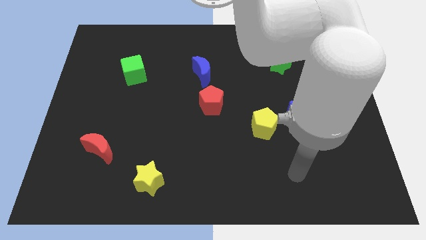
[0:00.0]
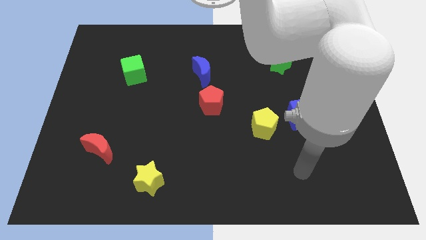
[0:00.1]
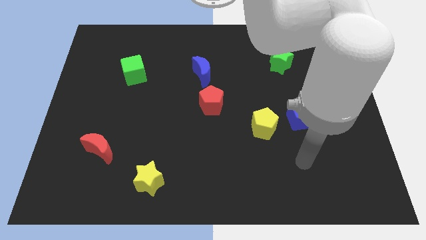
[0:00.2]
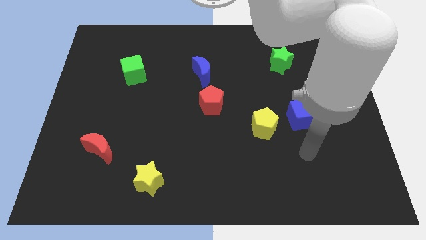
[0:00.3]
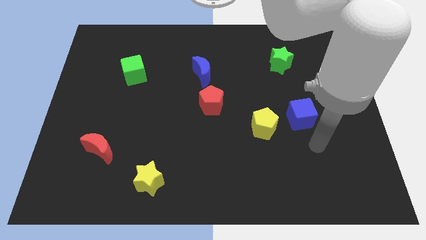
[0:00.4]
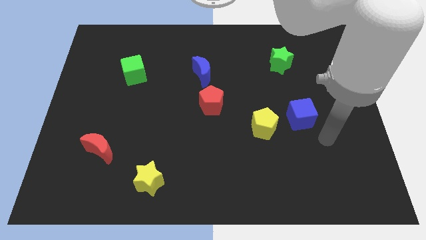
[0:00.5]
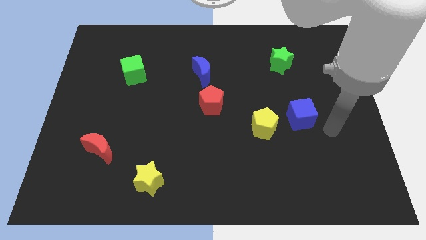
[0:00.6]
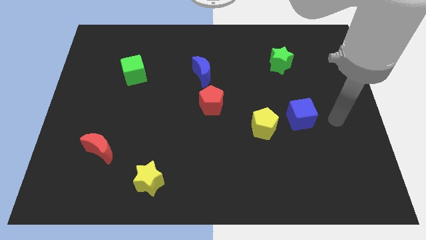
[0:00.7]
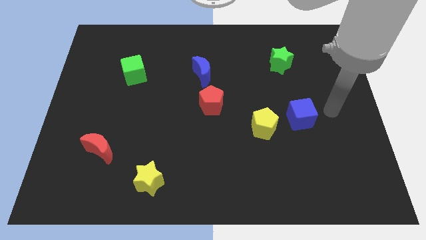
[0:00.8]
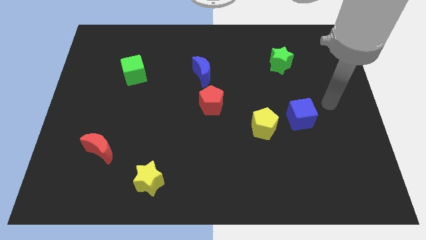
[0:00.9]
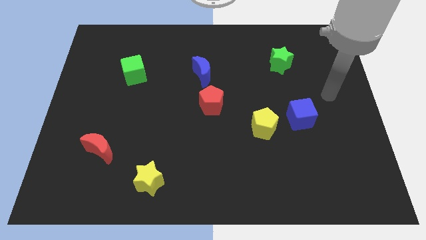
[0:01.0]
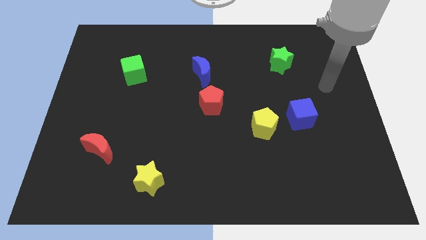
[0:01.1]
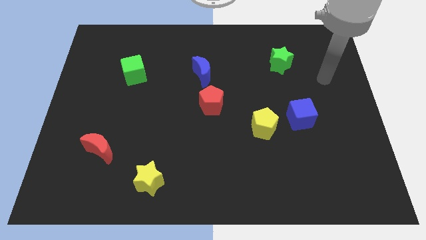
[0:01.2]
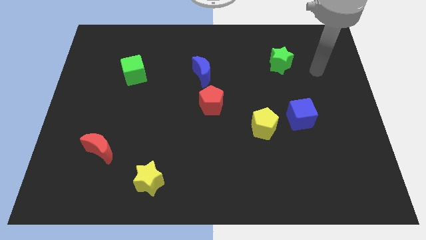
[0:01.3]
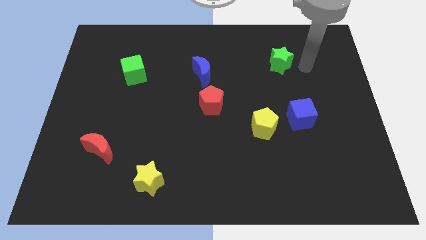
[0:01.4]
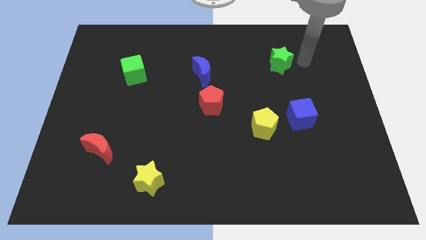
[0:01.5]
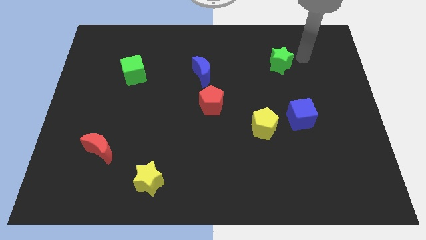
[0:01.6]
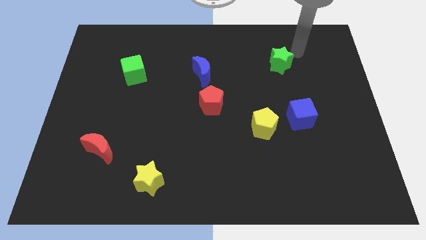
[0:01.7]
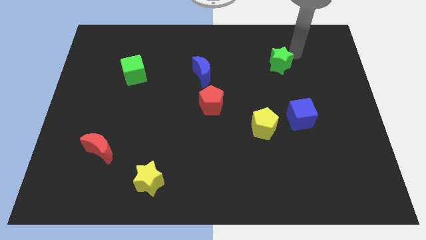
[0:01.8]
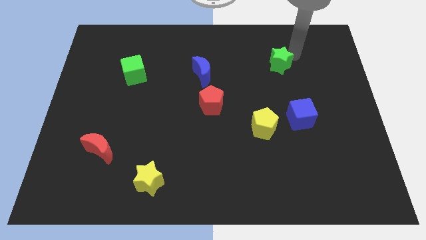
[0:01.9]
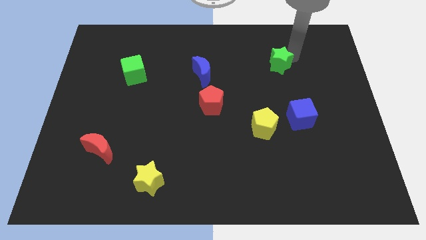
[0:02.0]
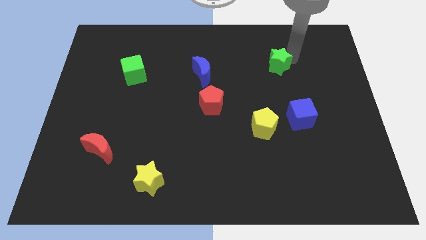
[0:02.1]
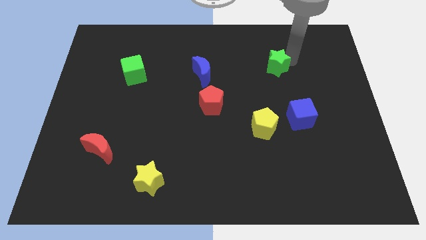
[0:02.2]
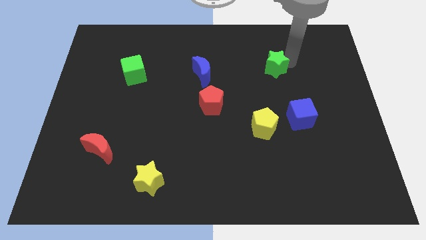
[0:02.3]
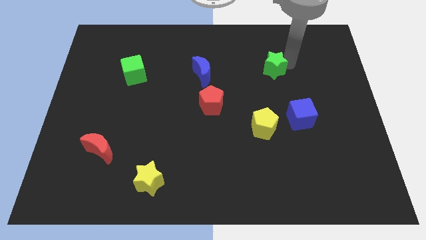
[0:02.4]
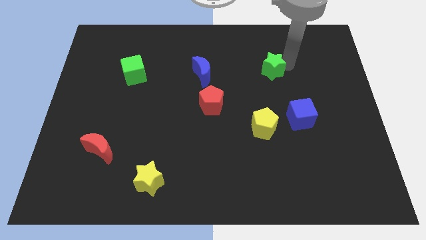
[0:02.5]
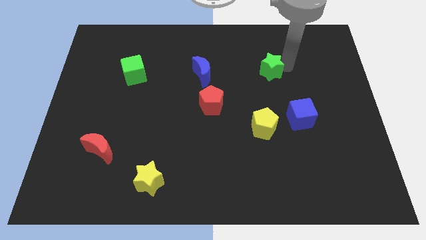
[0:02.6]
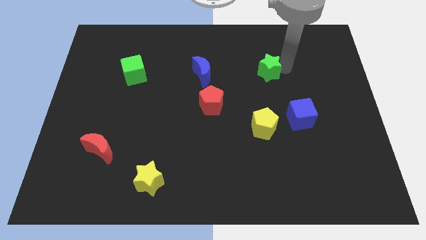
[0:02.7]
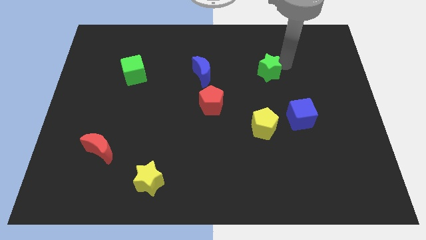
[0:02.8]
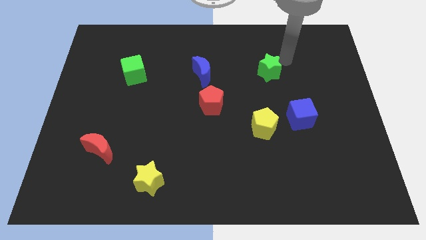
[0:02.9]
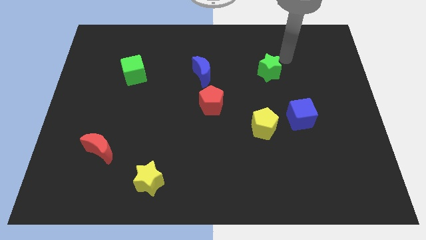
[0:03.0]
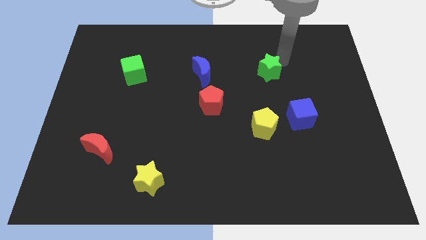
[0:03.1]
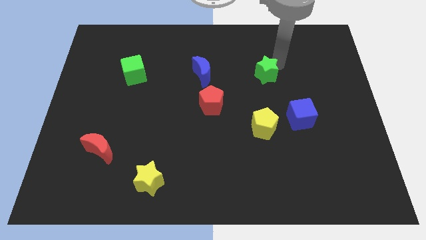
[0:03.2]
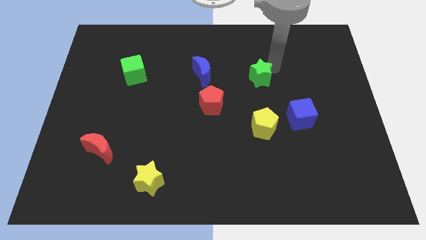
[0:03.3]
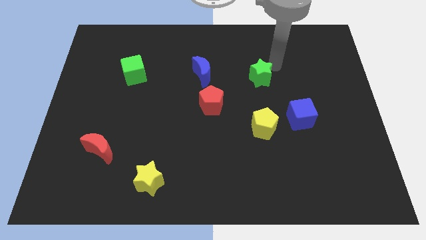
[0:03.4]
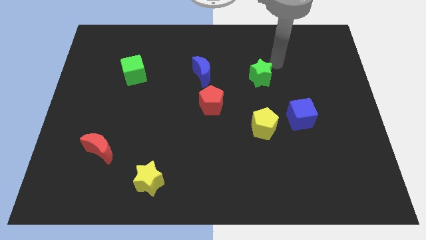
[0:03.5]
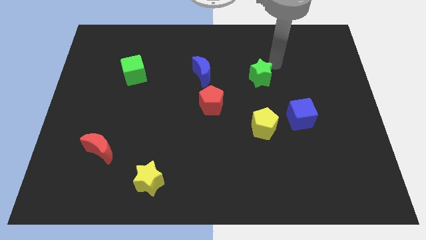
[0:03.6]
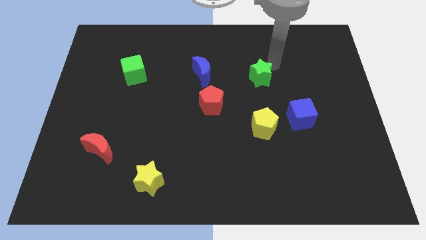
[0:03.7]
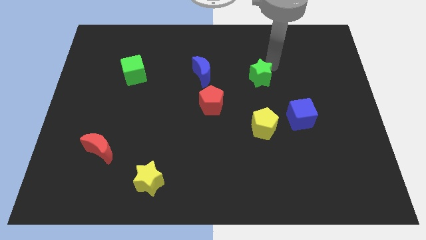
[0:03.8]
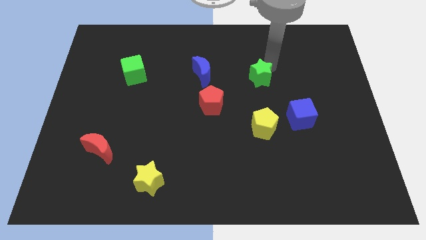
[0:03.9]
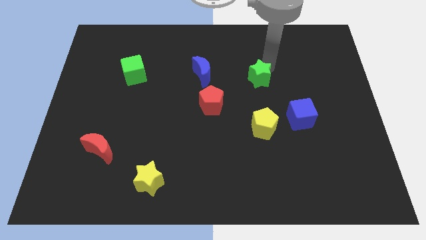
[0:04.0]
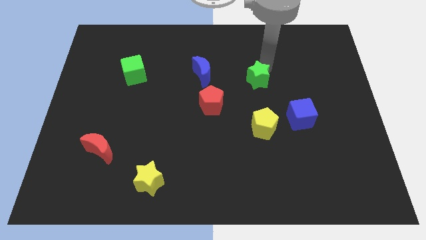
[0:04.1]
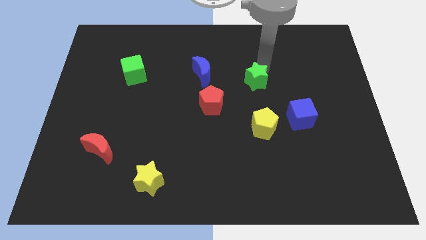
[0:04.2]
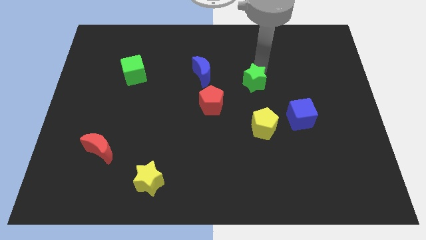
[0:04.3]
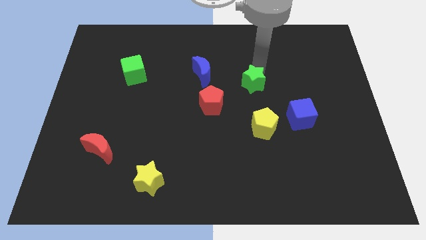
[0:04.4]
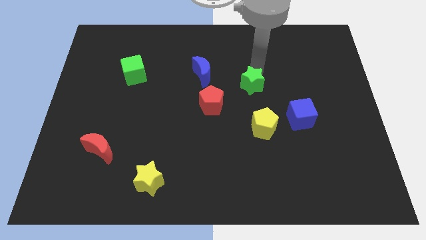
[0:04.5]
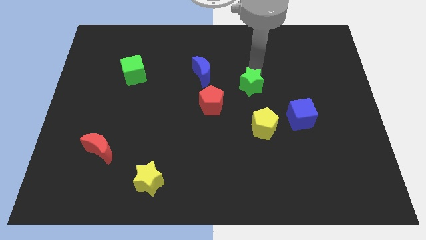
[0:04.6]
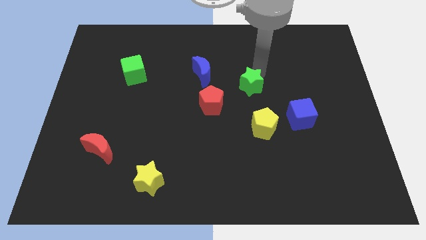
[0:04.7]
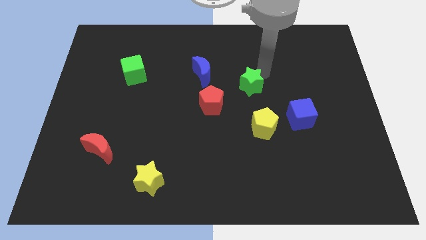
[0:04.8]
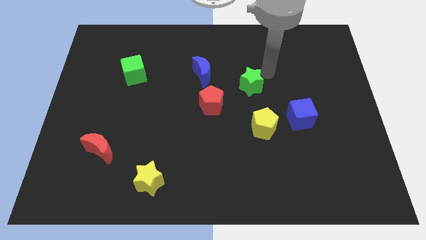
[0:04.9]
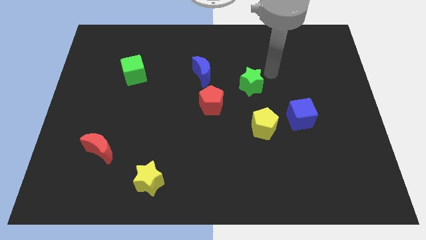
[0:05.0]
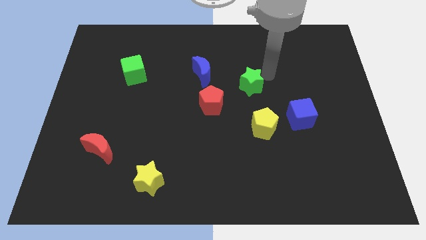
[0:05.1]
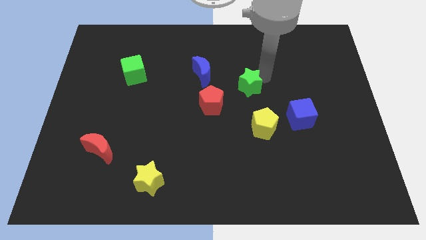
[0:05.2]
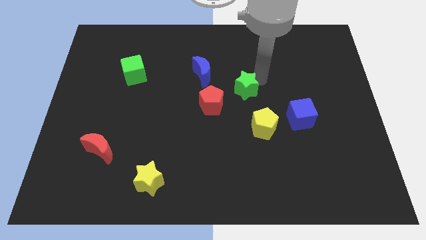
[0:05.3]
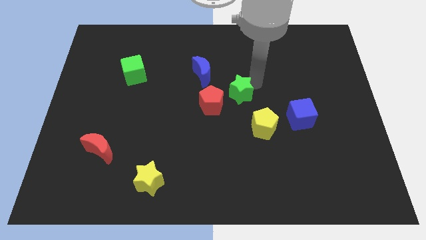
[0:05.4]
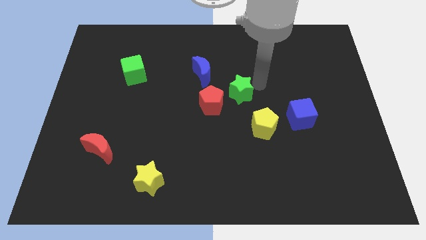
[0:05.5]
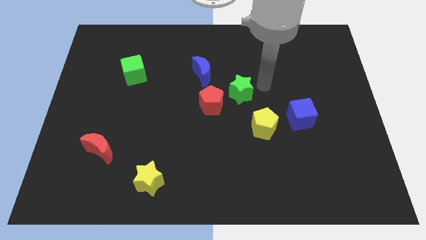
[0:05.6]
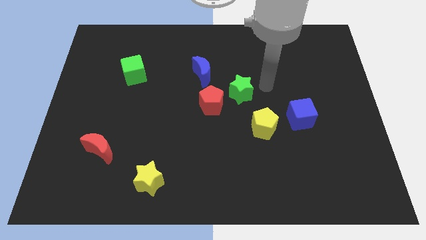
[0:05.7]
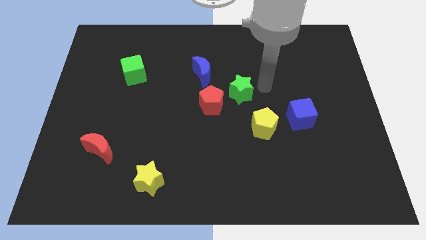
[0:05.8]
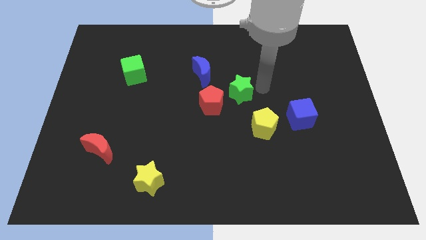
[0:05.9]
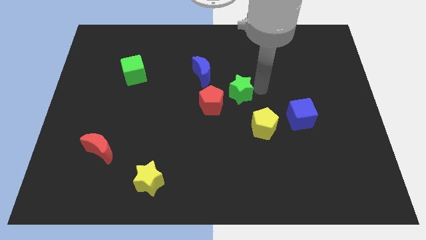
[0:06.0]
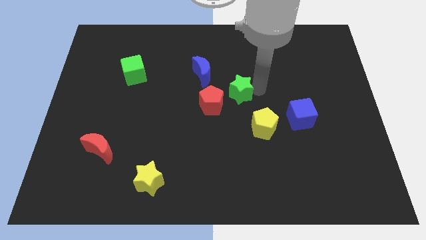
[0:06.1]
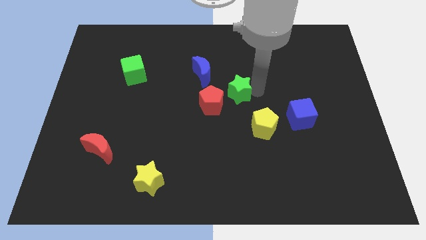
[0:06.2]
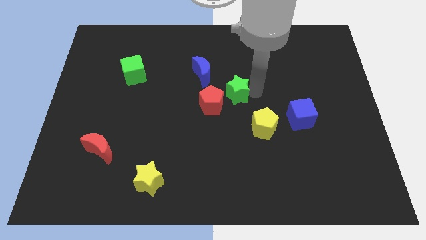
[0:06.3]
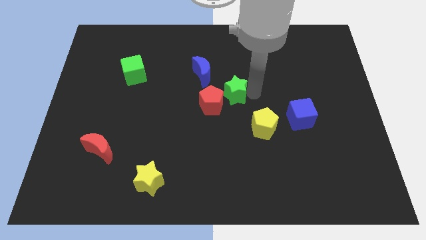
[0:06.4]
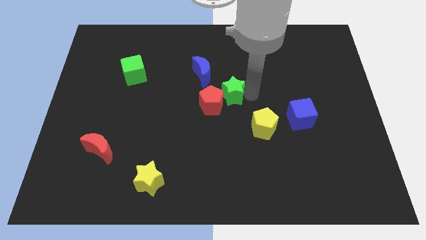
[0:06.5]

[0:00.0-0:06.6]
move the green star close to the red pentagon

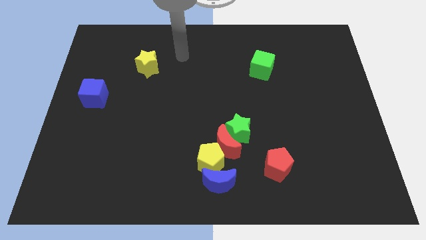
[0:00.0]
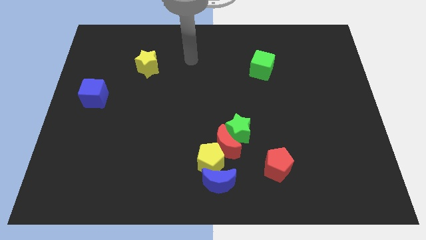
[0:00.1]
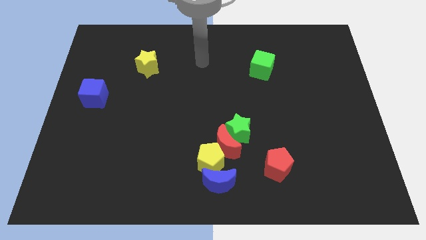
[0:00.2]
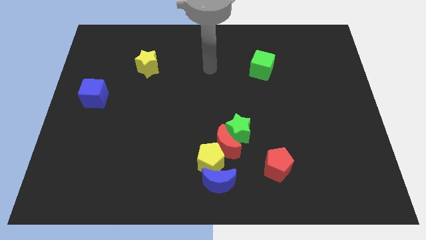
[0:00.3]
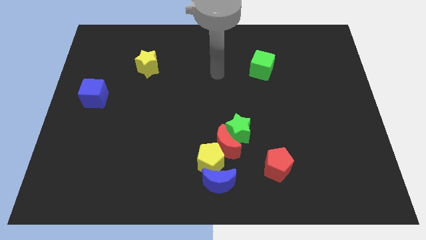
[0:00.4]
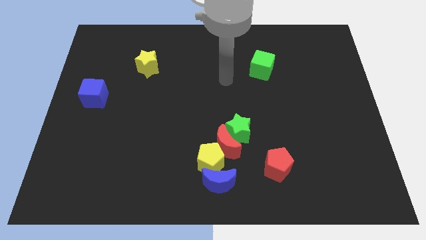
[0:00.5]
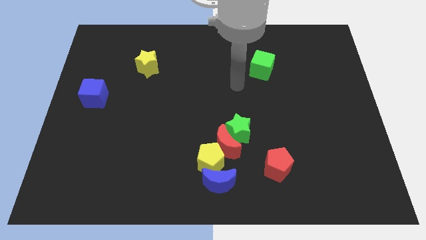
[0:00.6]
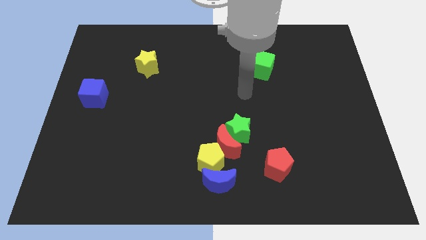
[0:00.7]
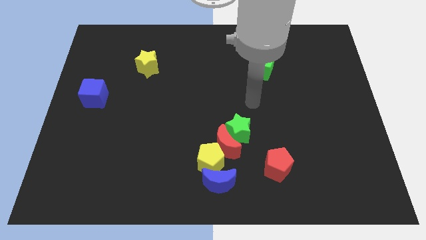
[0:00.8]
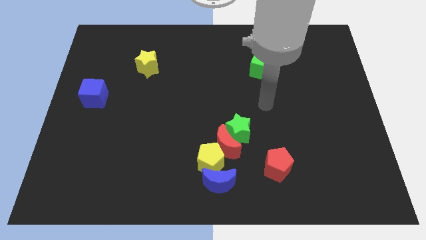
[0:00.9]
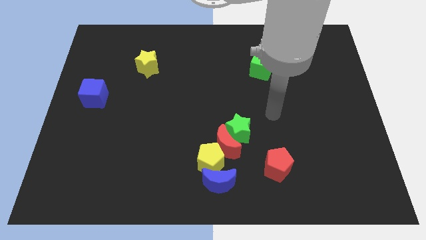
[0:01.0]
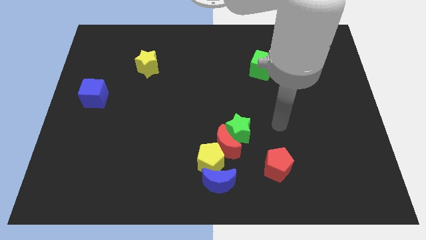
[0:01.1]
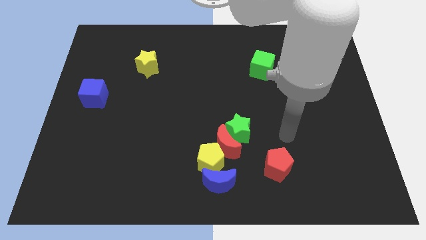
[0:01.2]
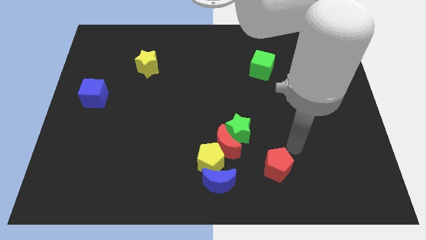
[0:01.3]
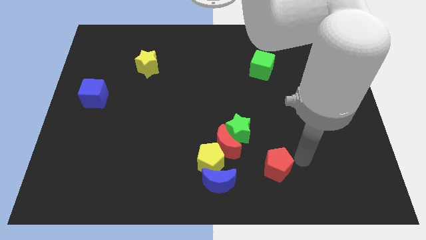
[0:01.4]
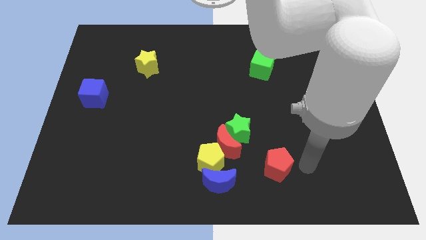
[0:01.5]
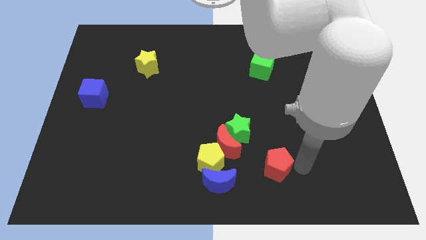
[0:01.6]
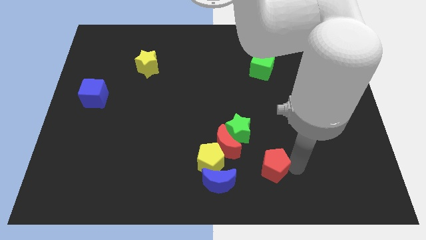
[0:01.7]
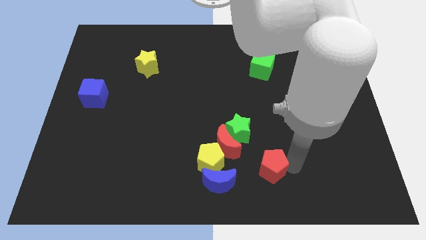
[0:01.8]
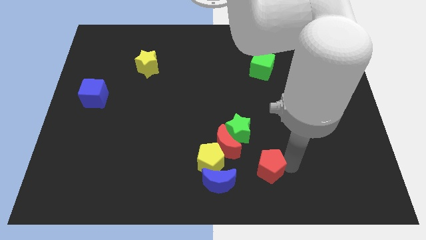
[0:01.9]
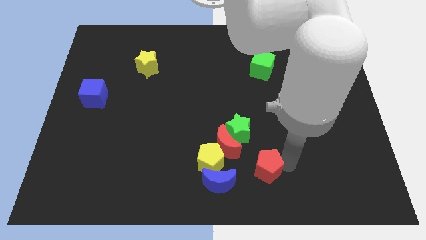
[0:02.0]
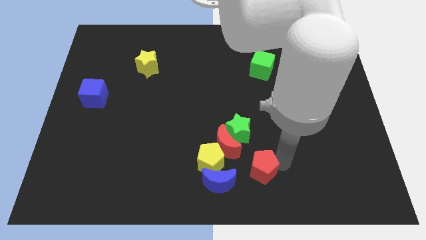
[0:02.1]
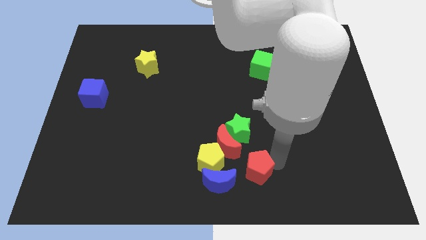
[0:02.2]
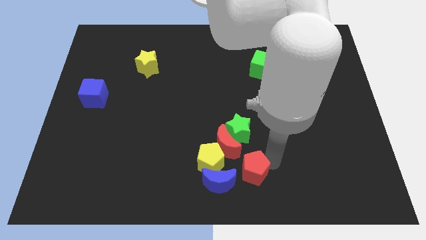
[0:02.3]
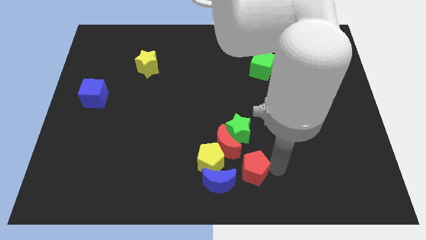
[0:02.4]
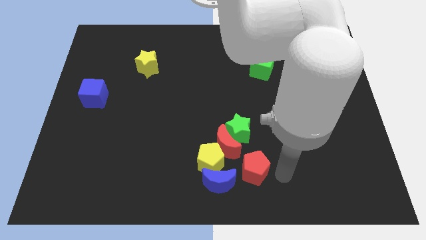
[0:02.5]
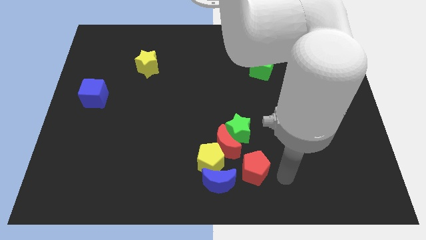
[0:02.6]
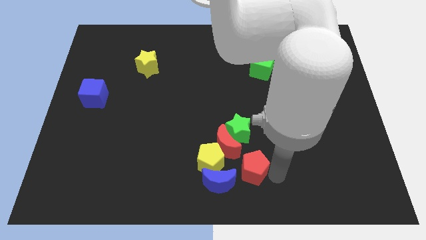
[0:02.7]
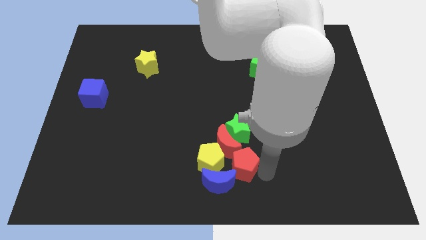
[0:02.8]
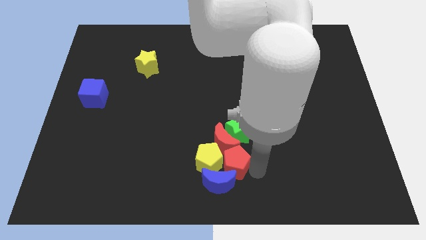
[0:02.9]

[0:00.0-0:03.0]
put the red pentagon next to the yellow pentagon
